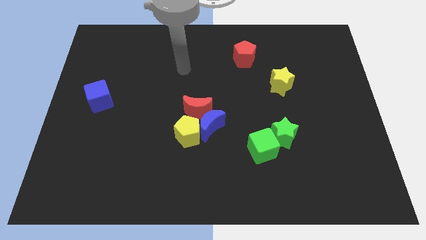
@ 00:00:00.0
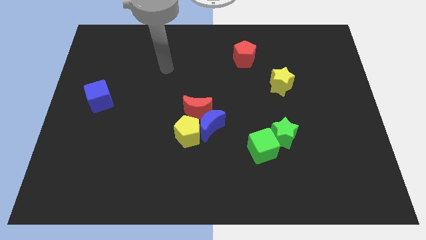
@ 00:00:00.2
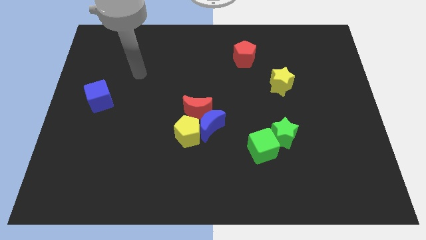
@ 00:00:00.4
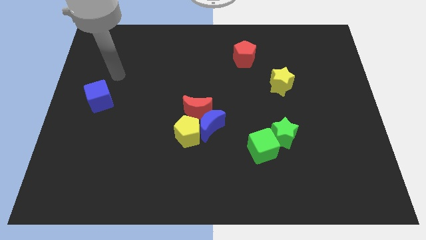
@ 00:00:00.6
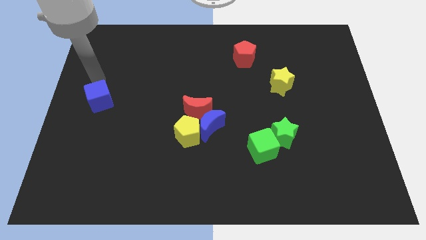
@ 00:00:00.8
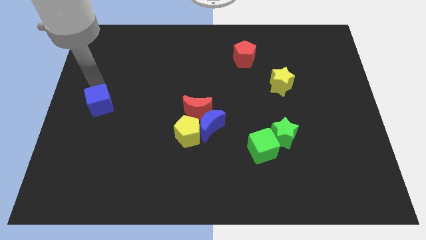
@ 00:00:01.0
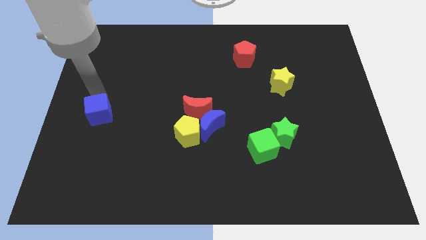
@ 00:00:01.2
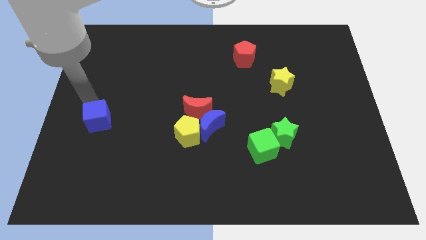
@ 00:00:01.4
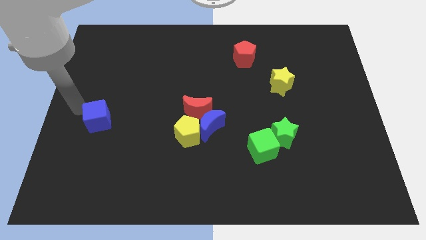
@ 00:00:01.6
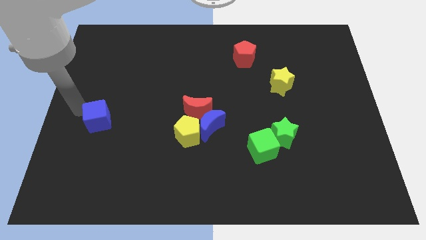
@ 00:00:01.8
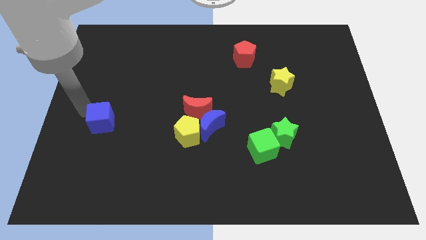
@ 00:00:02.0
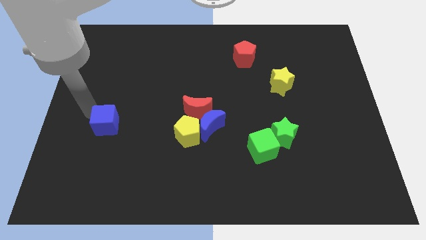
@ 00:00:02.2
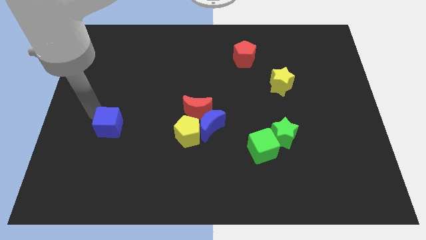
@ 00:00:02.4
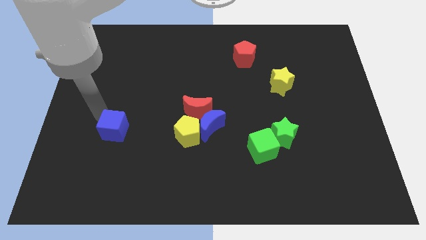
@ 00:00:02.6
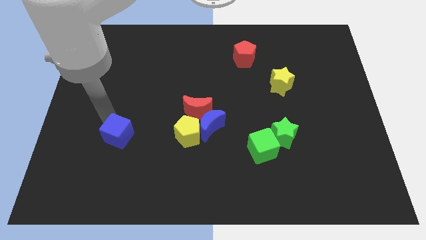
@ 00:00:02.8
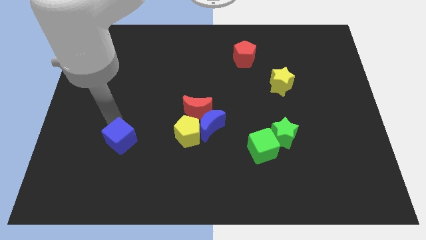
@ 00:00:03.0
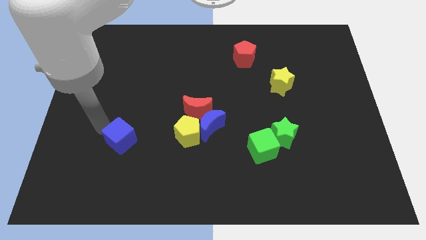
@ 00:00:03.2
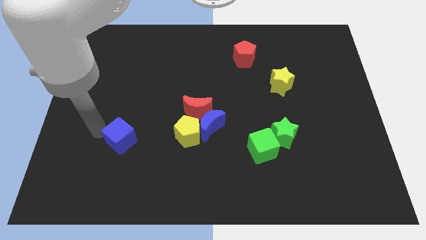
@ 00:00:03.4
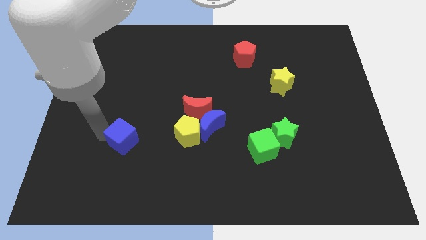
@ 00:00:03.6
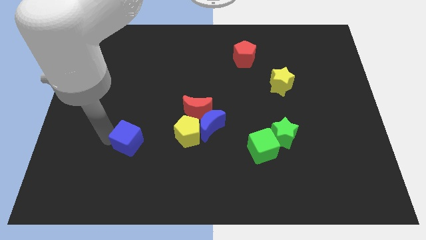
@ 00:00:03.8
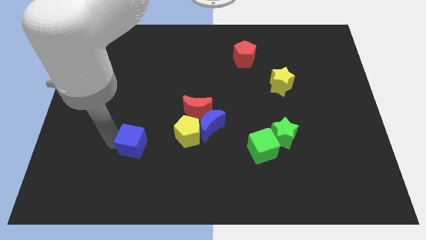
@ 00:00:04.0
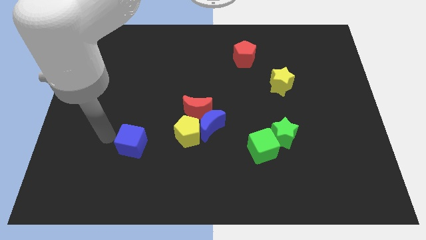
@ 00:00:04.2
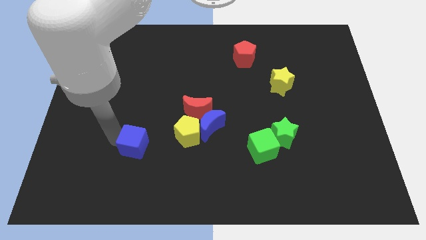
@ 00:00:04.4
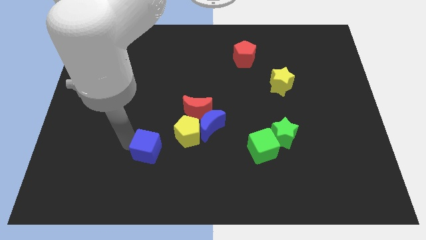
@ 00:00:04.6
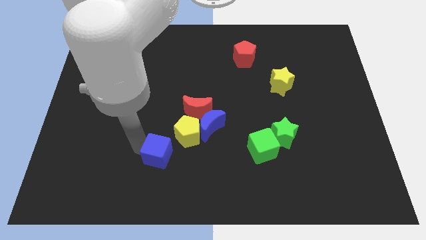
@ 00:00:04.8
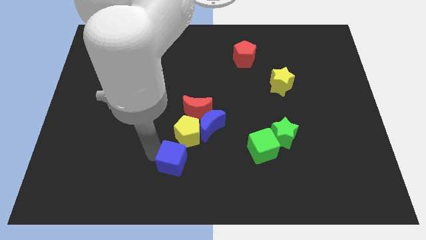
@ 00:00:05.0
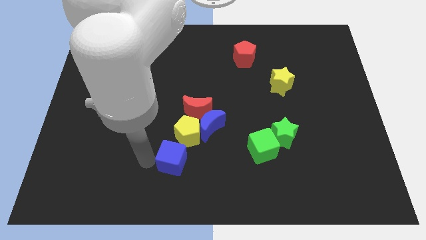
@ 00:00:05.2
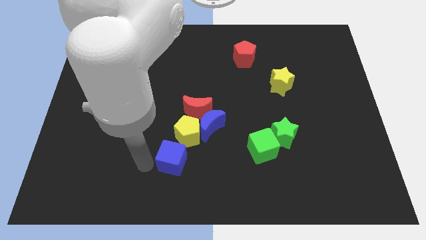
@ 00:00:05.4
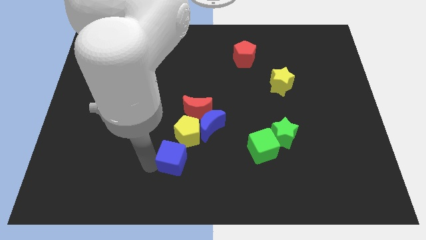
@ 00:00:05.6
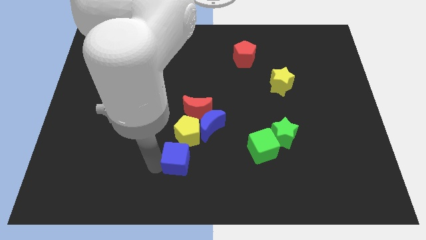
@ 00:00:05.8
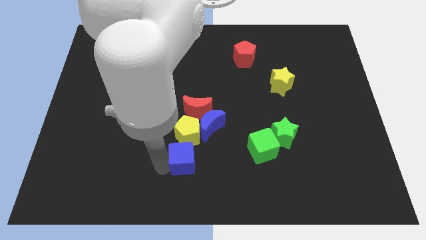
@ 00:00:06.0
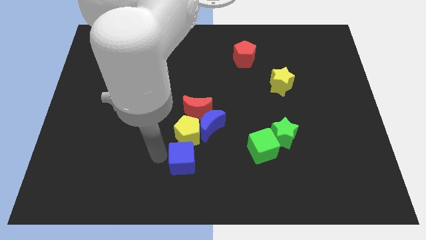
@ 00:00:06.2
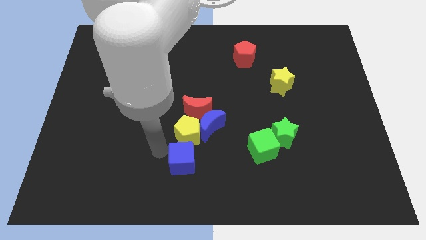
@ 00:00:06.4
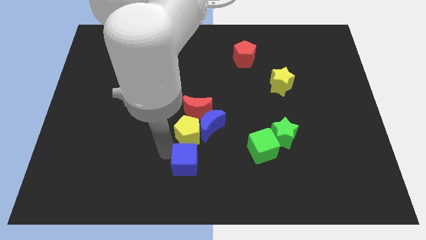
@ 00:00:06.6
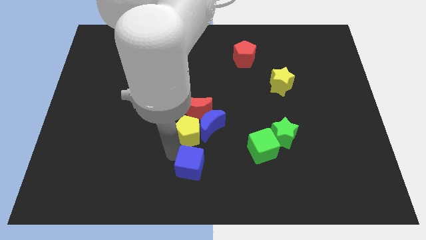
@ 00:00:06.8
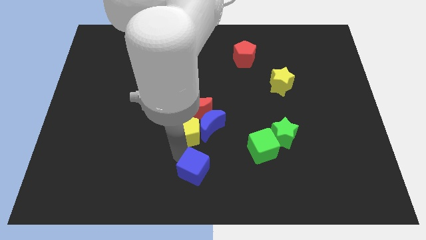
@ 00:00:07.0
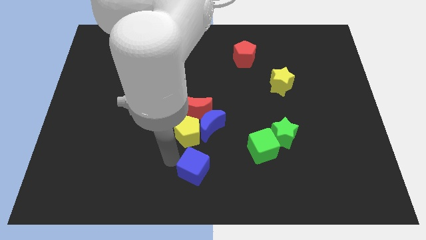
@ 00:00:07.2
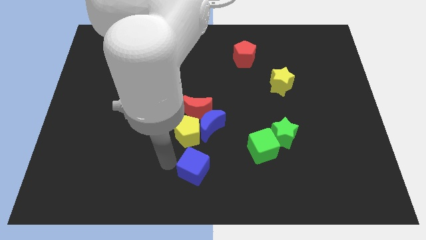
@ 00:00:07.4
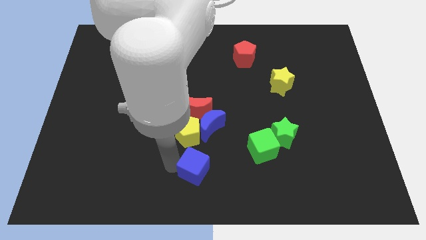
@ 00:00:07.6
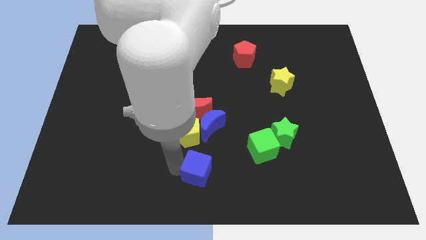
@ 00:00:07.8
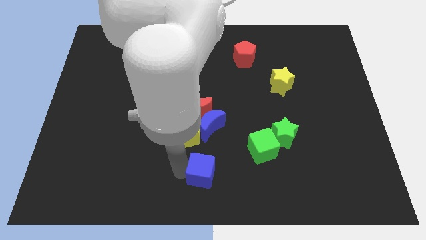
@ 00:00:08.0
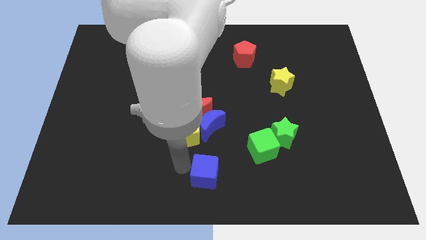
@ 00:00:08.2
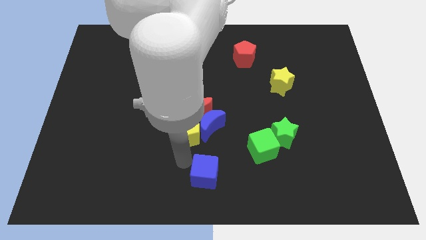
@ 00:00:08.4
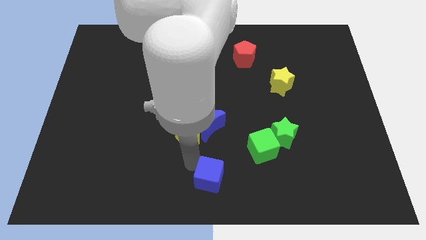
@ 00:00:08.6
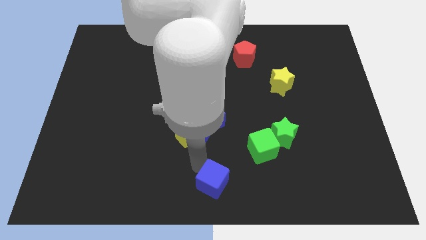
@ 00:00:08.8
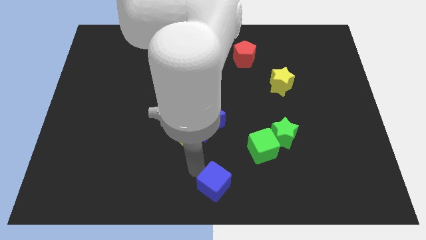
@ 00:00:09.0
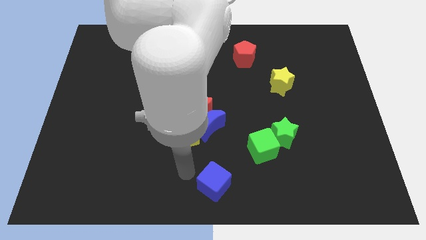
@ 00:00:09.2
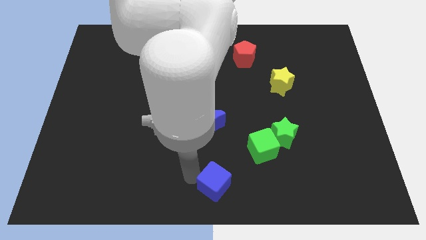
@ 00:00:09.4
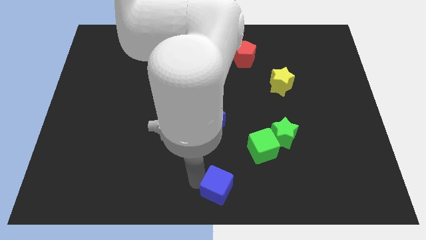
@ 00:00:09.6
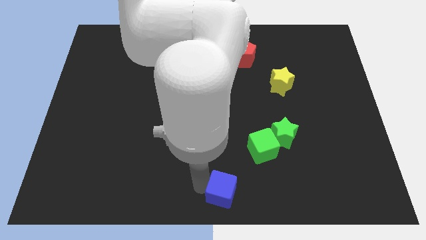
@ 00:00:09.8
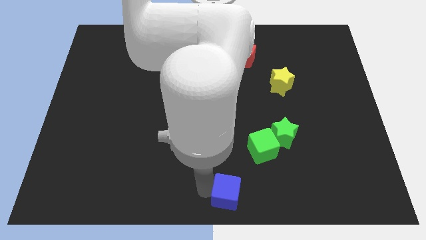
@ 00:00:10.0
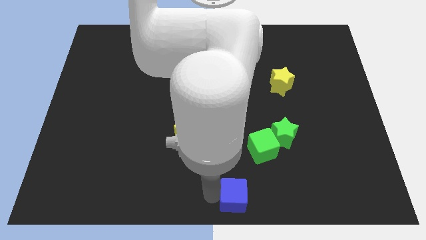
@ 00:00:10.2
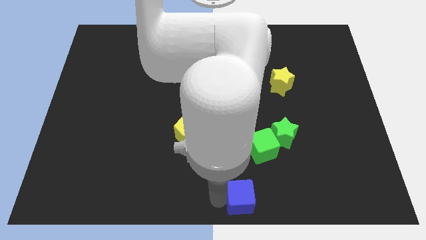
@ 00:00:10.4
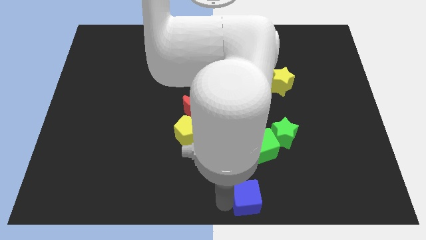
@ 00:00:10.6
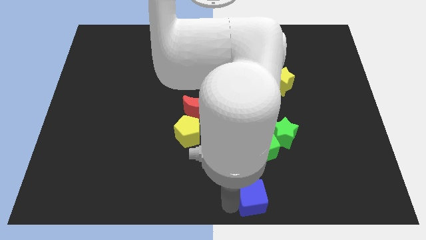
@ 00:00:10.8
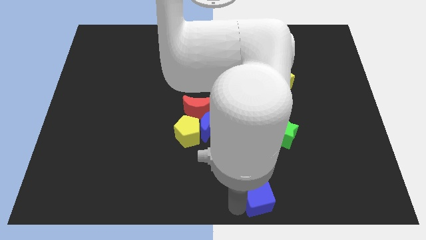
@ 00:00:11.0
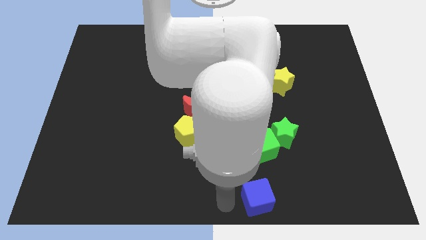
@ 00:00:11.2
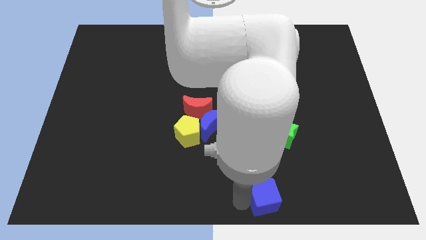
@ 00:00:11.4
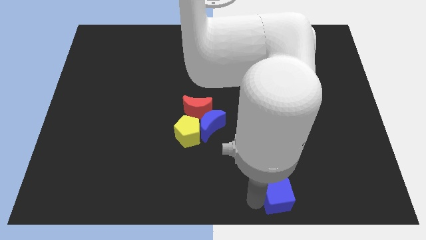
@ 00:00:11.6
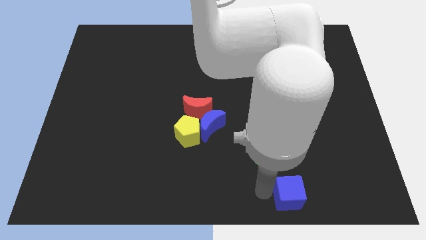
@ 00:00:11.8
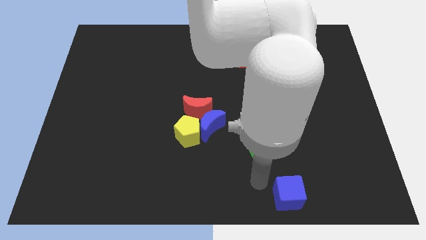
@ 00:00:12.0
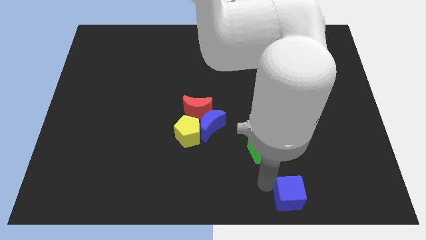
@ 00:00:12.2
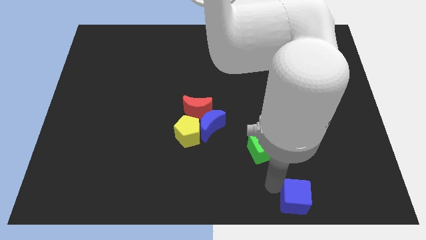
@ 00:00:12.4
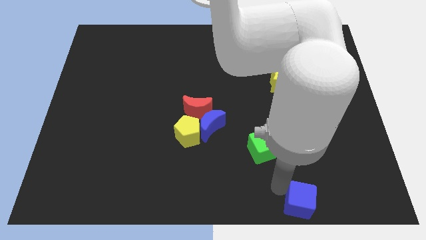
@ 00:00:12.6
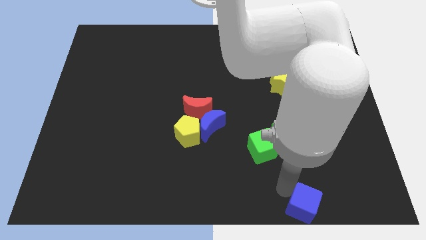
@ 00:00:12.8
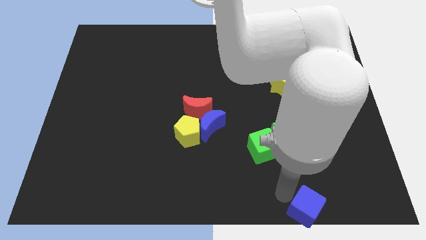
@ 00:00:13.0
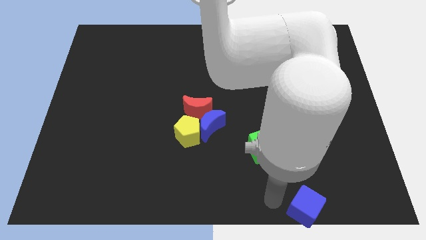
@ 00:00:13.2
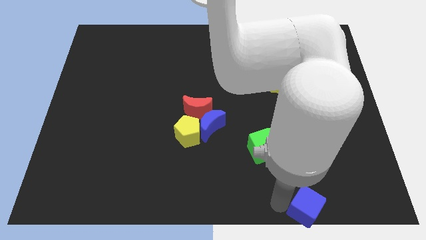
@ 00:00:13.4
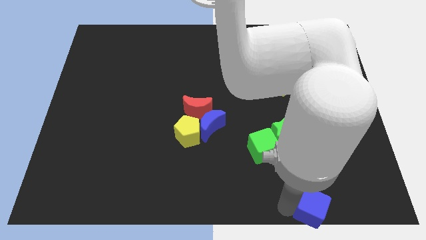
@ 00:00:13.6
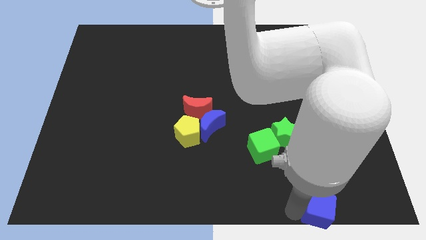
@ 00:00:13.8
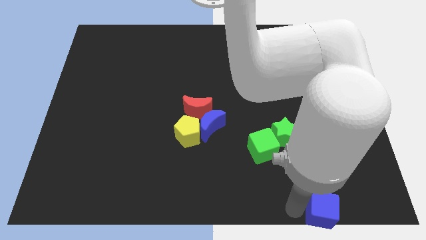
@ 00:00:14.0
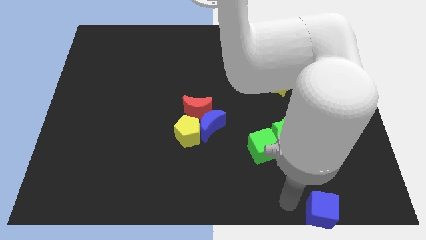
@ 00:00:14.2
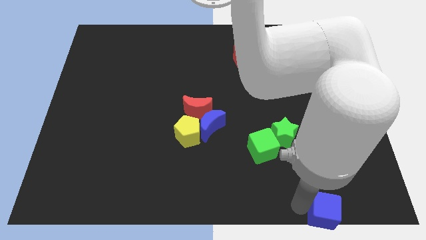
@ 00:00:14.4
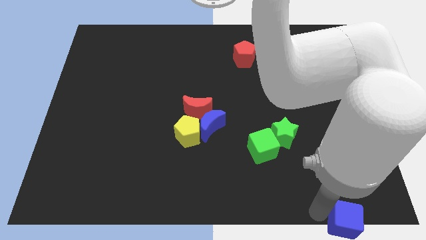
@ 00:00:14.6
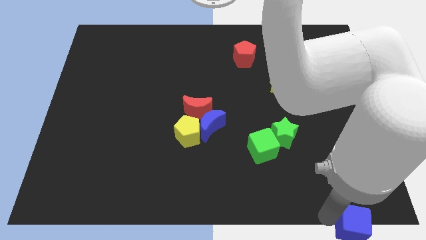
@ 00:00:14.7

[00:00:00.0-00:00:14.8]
move the blue cube to the bottom right corner
